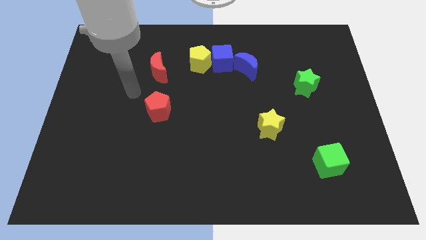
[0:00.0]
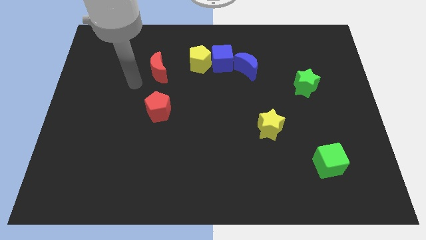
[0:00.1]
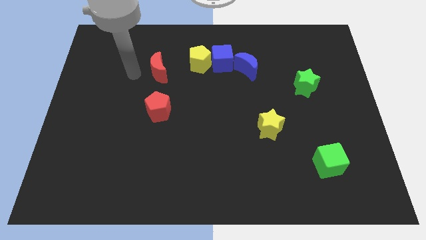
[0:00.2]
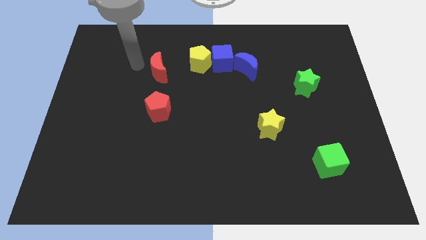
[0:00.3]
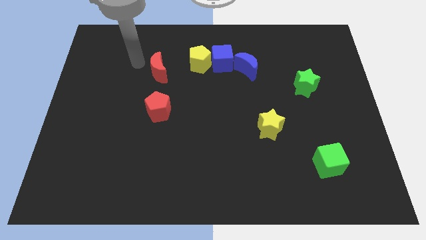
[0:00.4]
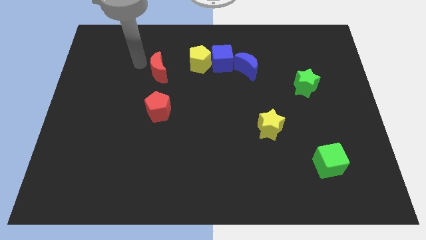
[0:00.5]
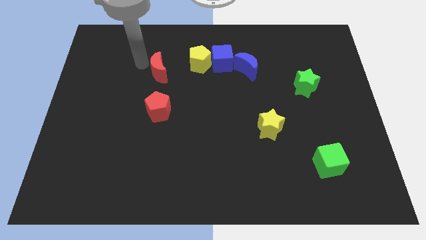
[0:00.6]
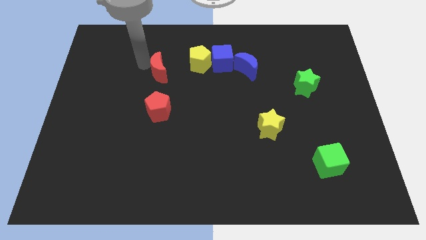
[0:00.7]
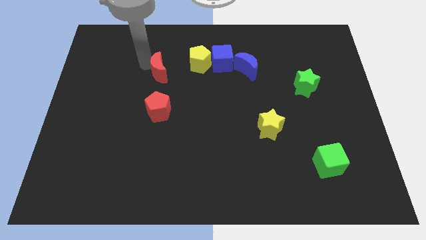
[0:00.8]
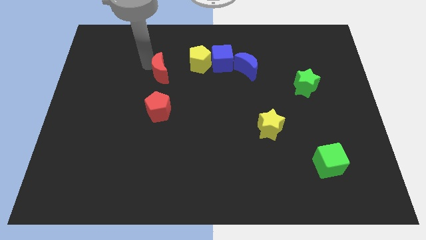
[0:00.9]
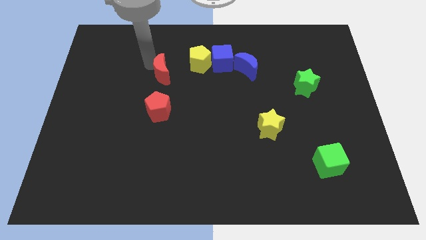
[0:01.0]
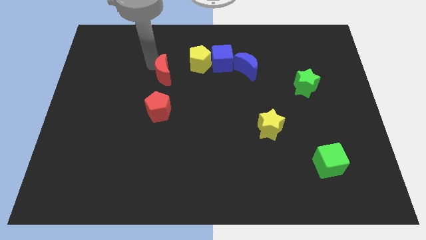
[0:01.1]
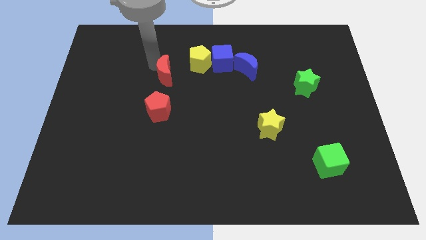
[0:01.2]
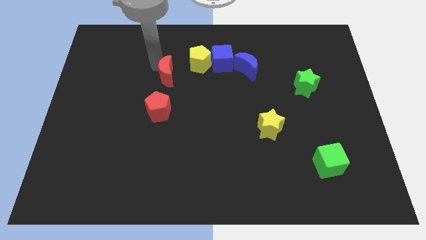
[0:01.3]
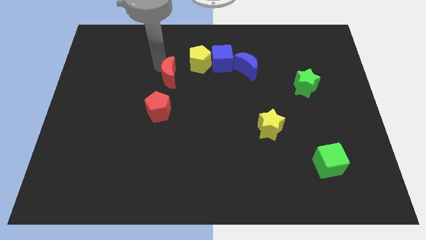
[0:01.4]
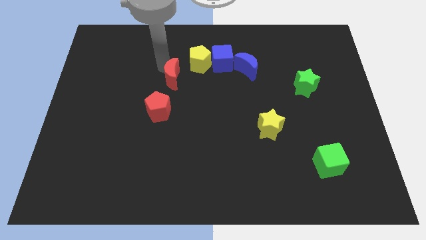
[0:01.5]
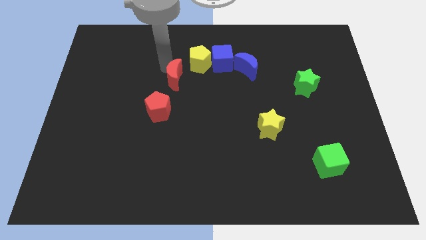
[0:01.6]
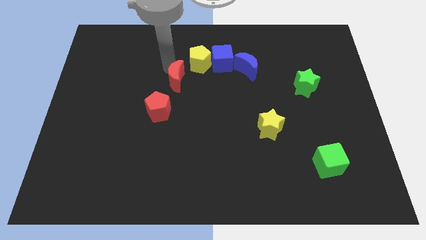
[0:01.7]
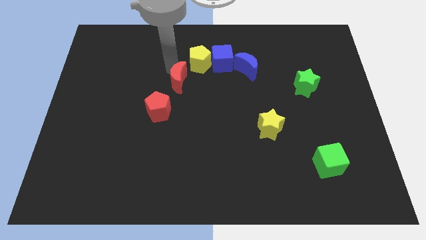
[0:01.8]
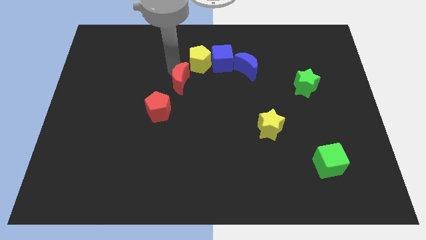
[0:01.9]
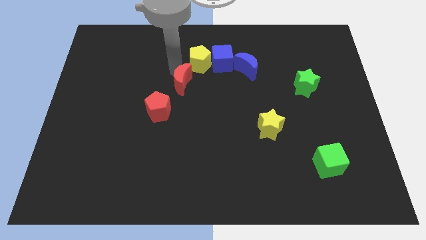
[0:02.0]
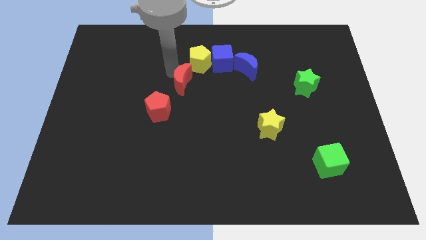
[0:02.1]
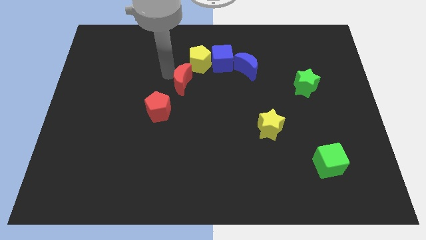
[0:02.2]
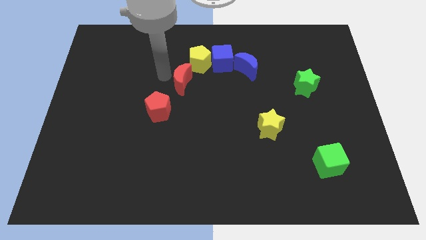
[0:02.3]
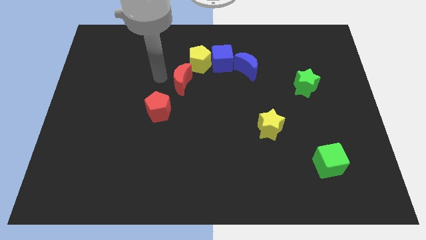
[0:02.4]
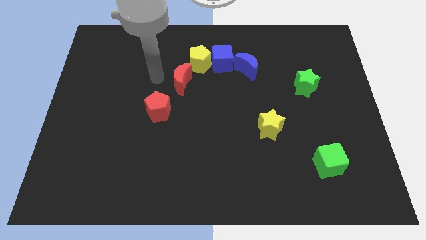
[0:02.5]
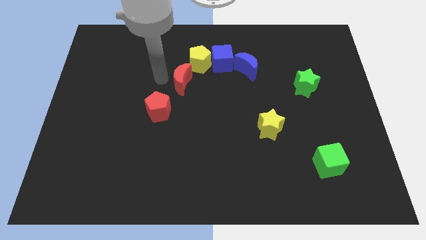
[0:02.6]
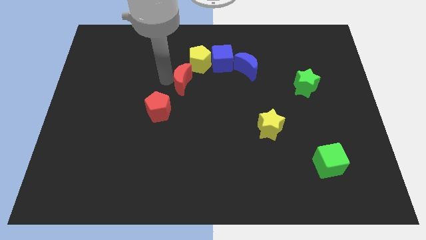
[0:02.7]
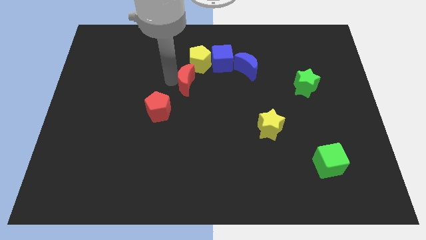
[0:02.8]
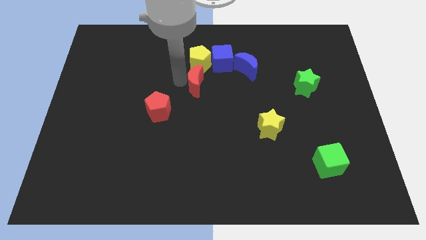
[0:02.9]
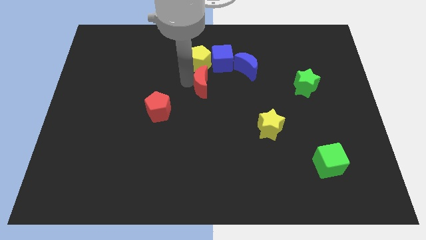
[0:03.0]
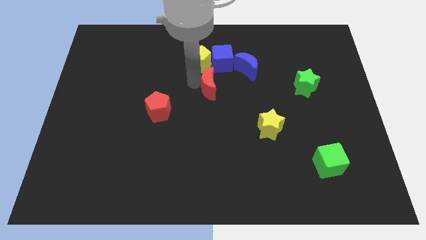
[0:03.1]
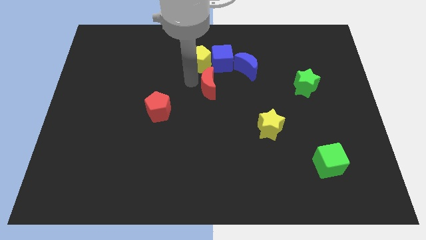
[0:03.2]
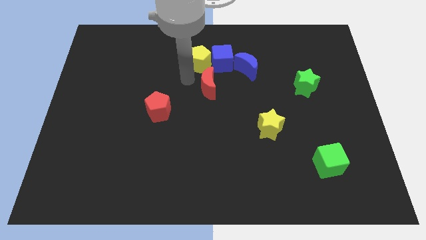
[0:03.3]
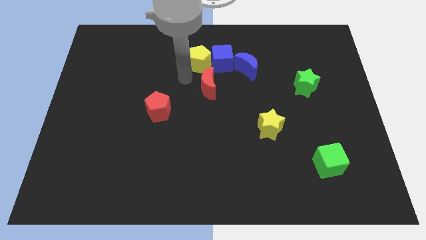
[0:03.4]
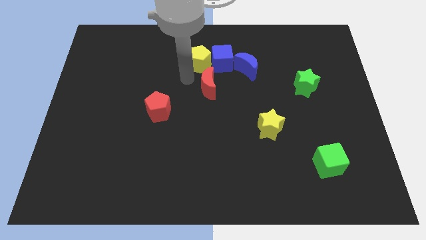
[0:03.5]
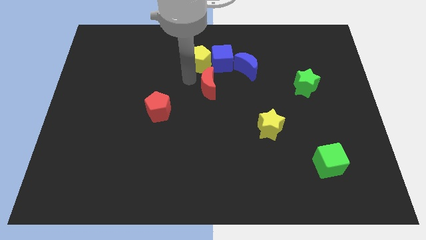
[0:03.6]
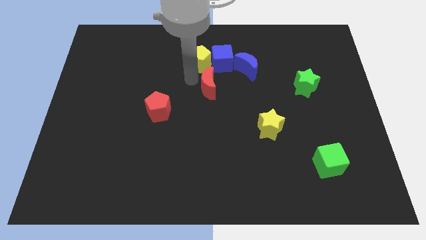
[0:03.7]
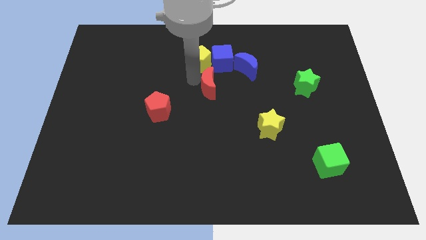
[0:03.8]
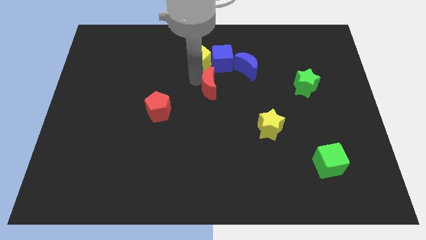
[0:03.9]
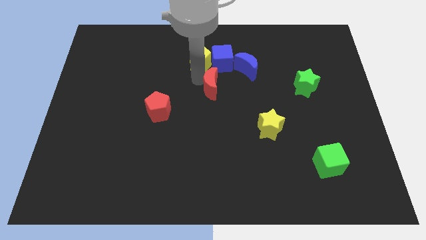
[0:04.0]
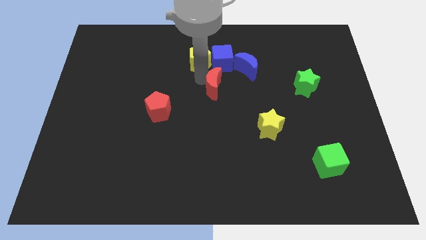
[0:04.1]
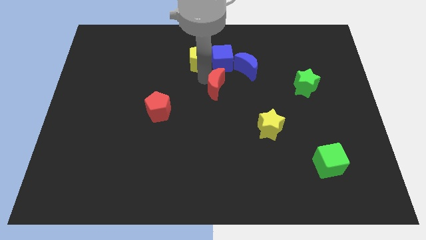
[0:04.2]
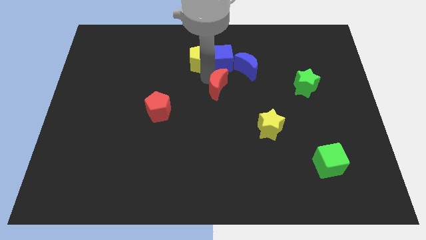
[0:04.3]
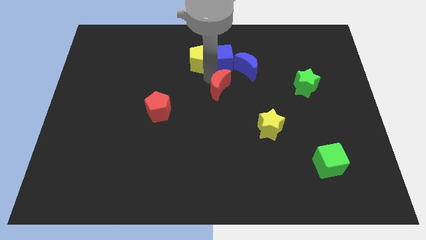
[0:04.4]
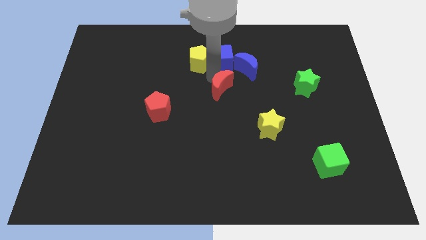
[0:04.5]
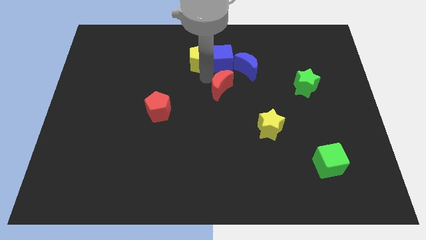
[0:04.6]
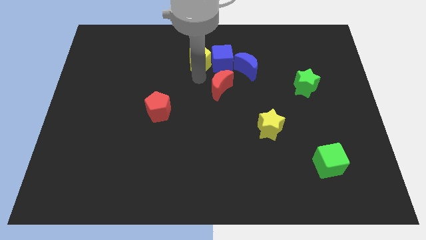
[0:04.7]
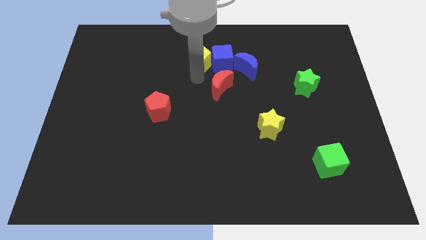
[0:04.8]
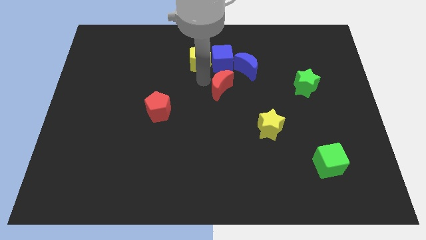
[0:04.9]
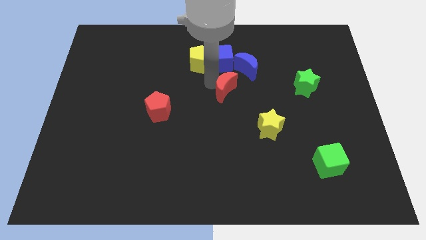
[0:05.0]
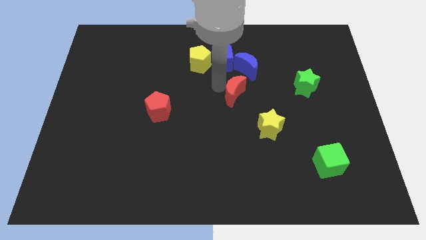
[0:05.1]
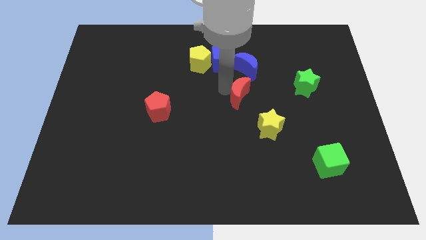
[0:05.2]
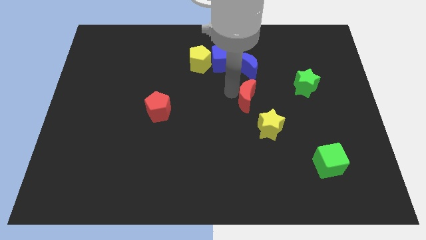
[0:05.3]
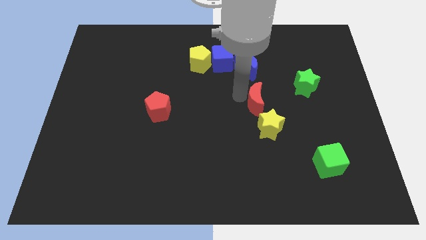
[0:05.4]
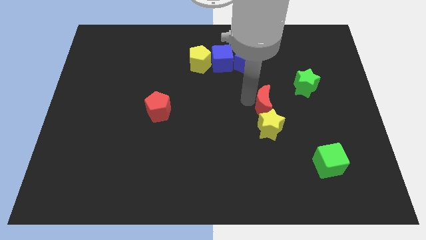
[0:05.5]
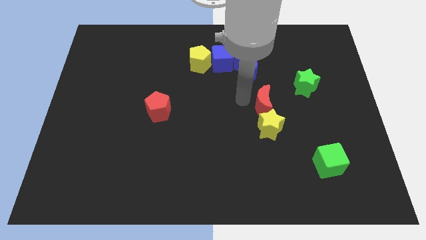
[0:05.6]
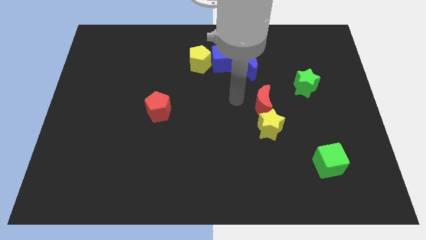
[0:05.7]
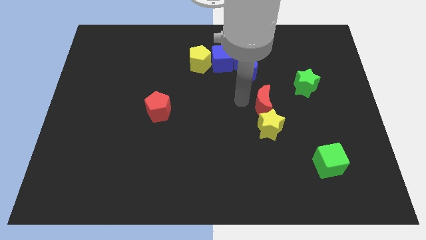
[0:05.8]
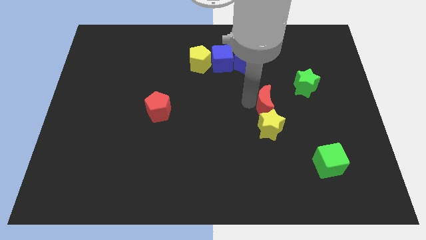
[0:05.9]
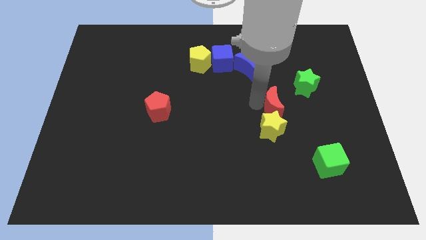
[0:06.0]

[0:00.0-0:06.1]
slide the red moon to the top right of the yellow star
